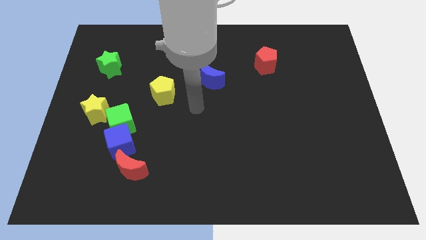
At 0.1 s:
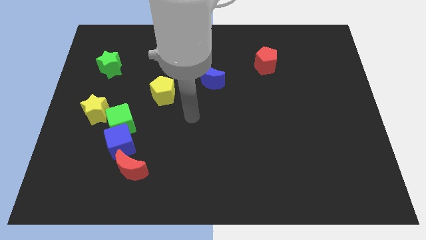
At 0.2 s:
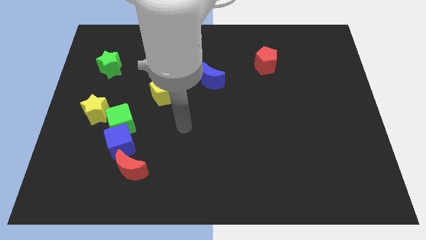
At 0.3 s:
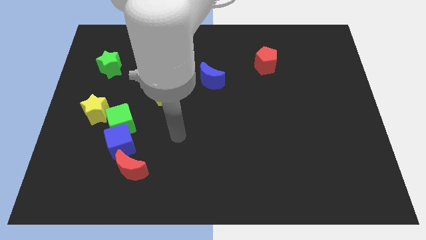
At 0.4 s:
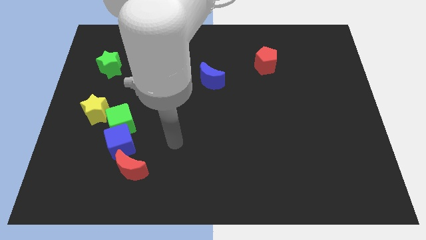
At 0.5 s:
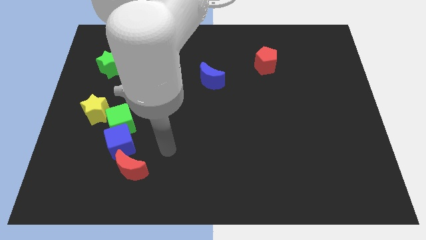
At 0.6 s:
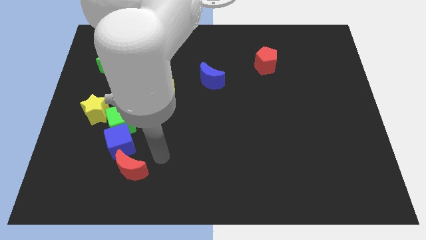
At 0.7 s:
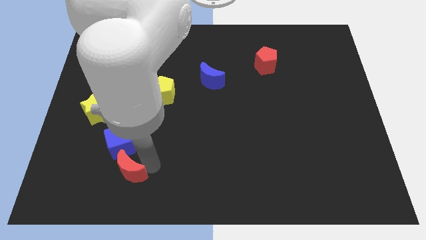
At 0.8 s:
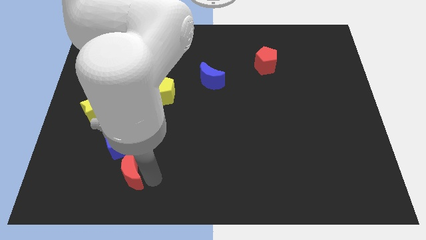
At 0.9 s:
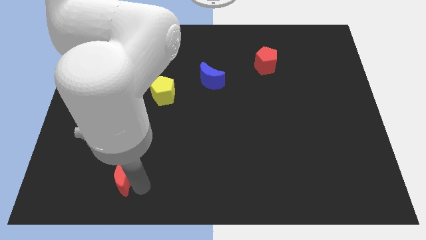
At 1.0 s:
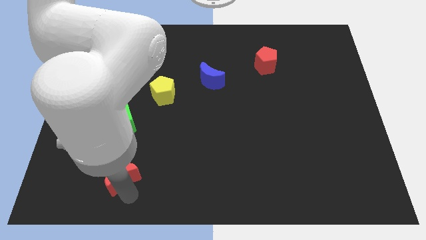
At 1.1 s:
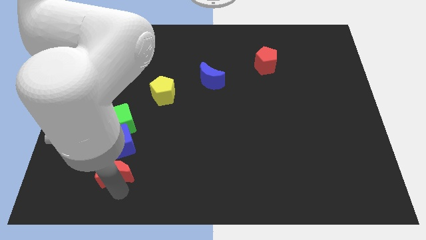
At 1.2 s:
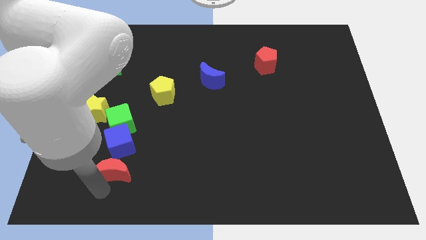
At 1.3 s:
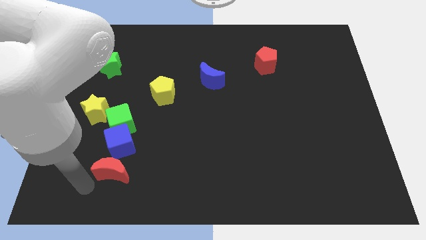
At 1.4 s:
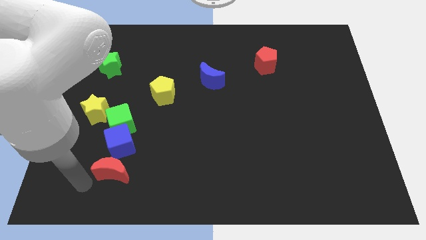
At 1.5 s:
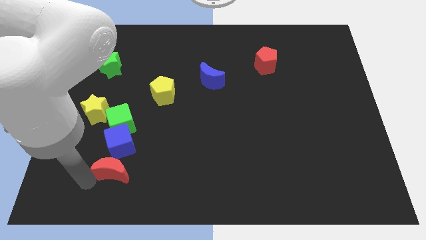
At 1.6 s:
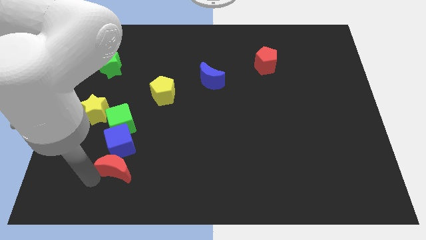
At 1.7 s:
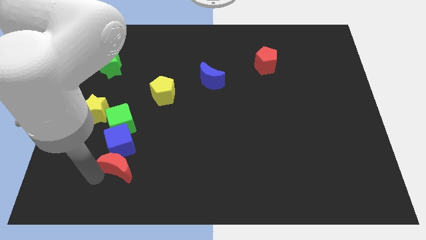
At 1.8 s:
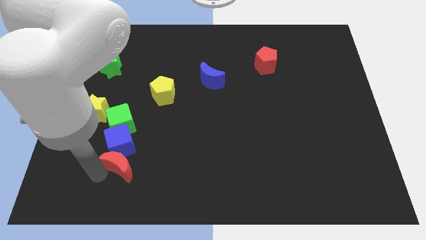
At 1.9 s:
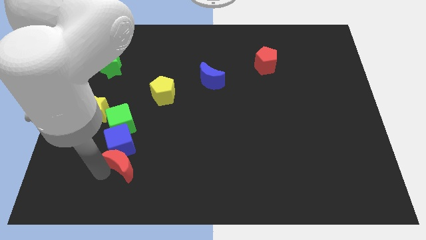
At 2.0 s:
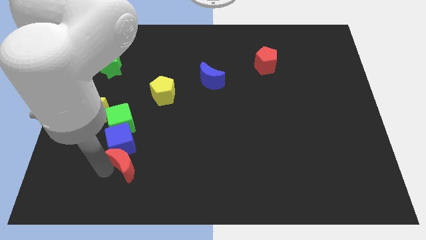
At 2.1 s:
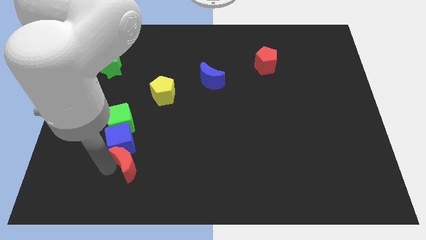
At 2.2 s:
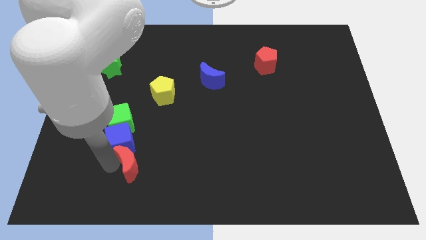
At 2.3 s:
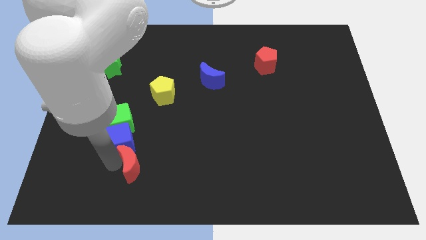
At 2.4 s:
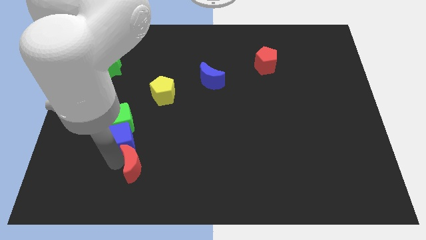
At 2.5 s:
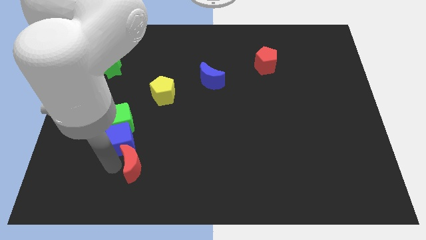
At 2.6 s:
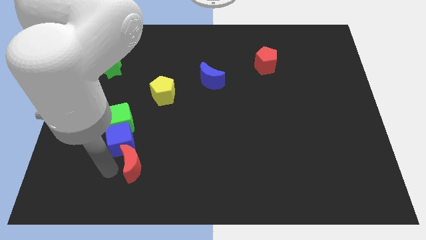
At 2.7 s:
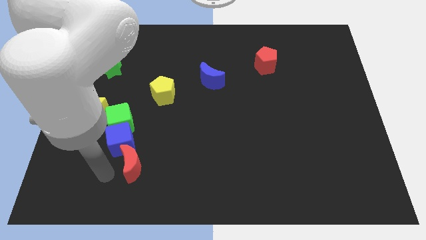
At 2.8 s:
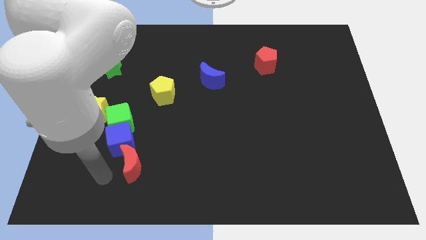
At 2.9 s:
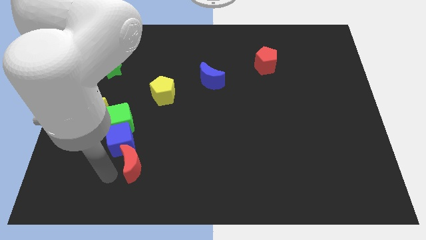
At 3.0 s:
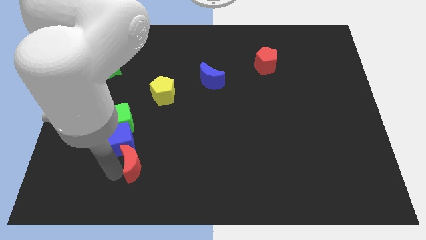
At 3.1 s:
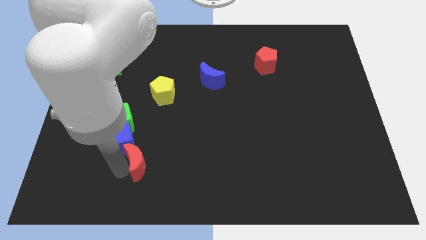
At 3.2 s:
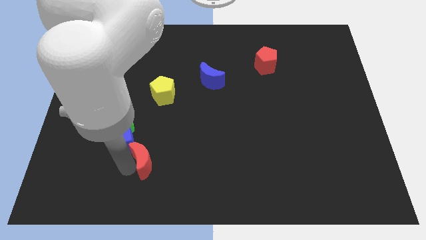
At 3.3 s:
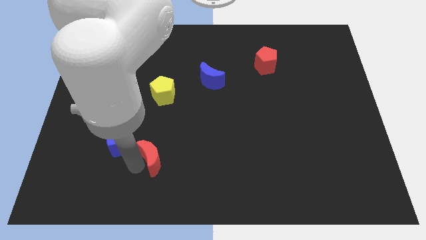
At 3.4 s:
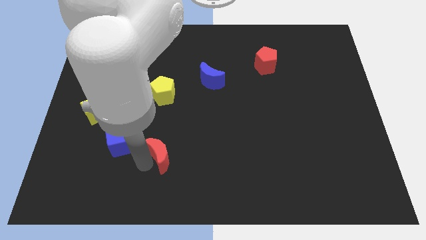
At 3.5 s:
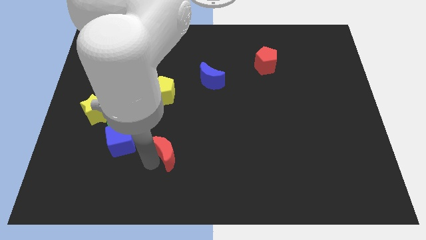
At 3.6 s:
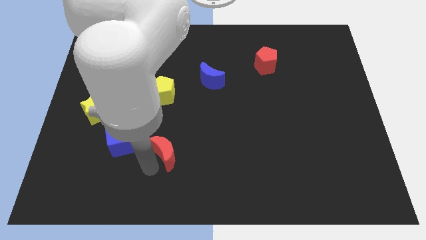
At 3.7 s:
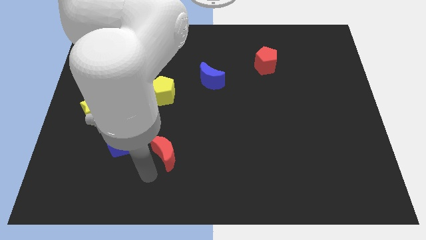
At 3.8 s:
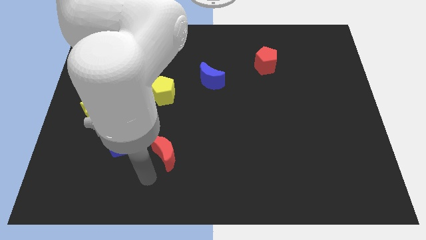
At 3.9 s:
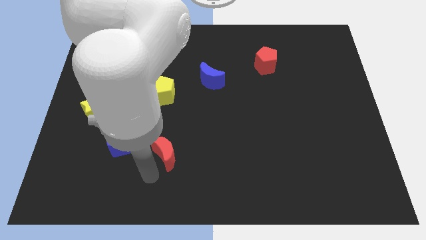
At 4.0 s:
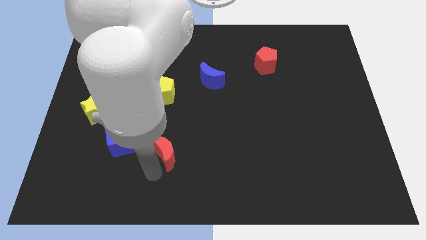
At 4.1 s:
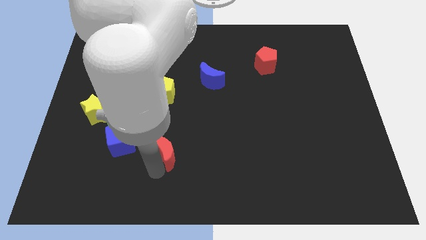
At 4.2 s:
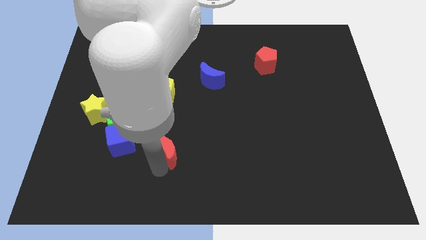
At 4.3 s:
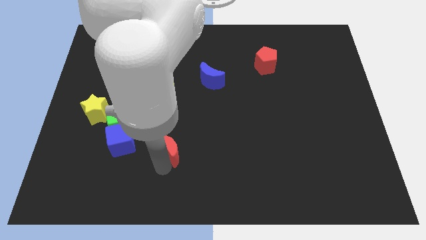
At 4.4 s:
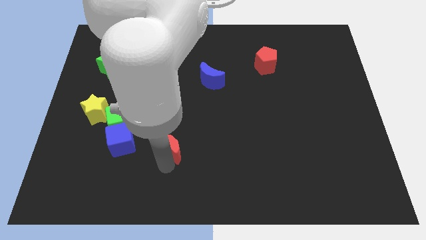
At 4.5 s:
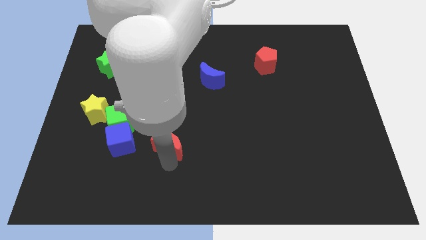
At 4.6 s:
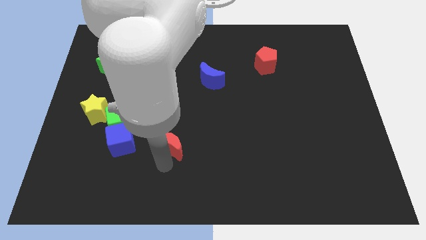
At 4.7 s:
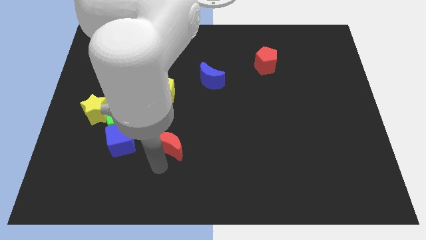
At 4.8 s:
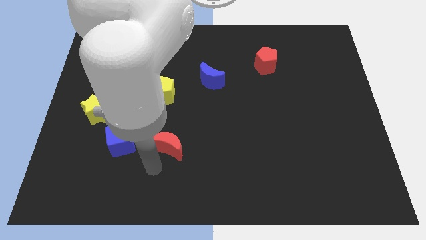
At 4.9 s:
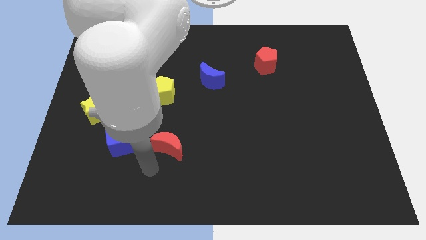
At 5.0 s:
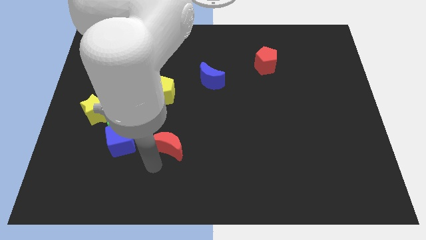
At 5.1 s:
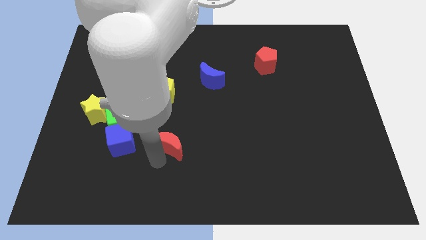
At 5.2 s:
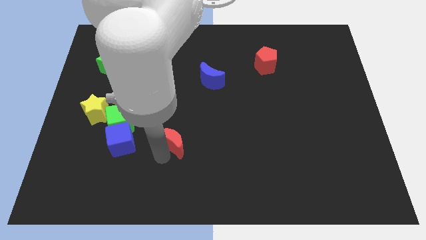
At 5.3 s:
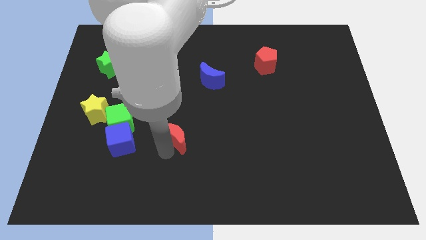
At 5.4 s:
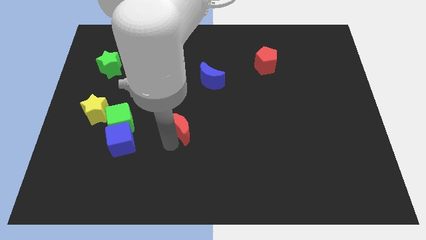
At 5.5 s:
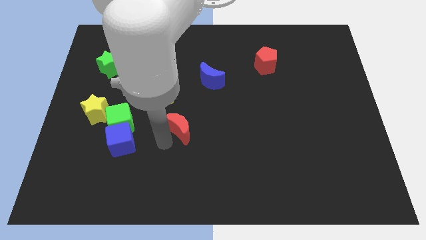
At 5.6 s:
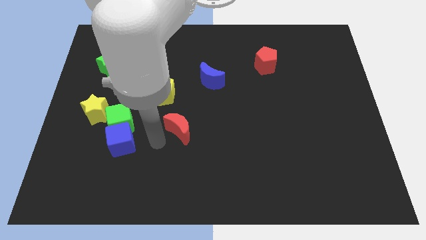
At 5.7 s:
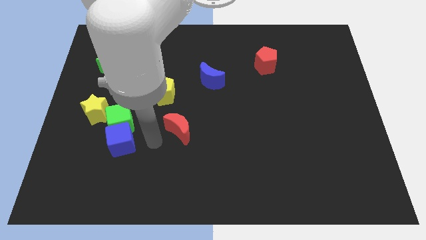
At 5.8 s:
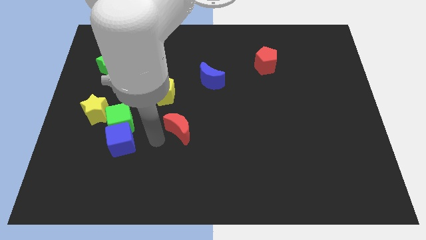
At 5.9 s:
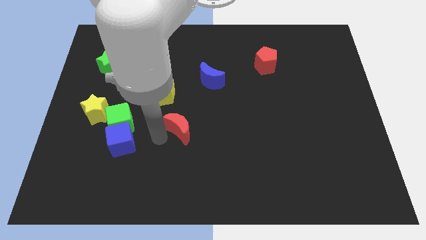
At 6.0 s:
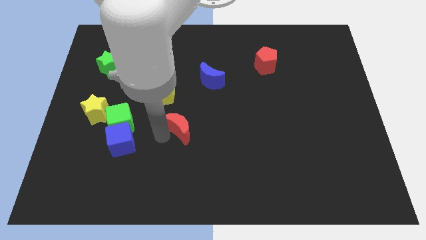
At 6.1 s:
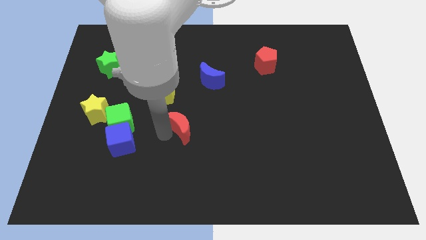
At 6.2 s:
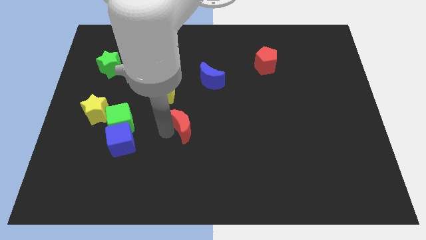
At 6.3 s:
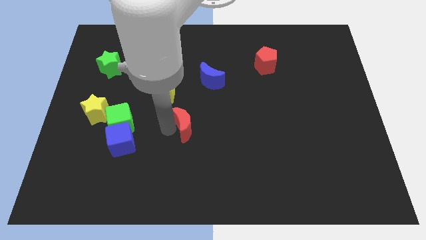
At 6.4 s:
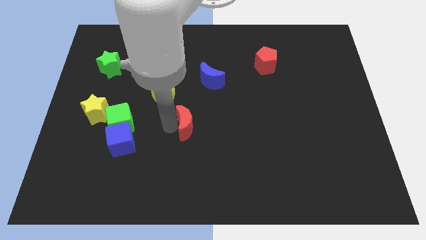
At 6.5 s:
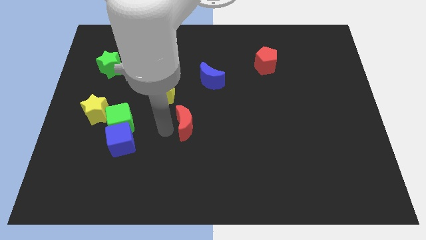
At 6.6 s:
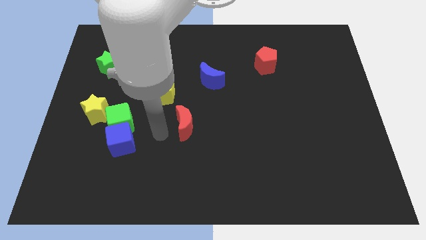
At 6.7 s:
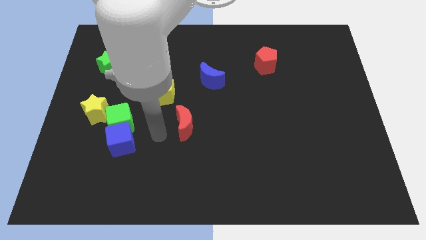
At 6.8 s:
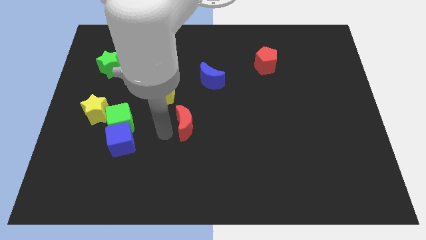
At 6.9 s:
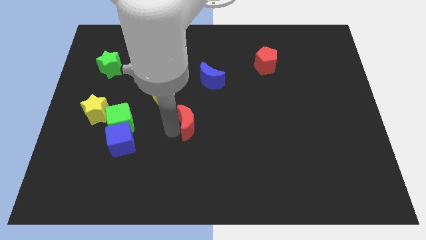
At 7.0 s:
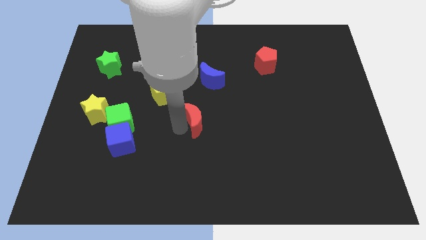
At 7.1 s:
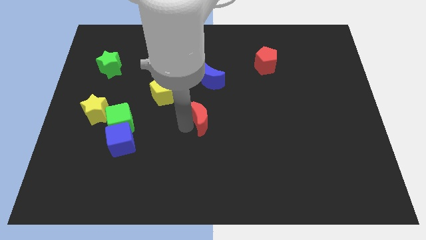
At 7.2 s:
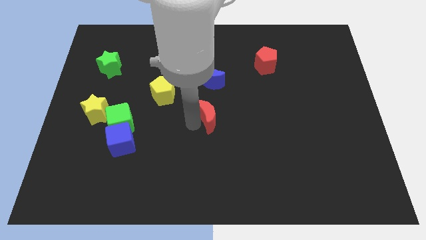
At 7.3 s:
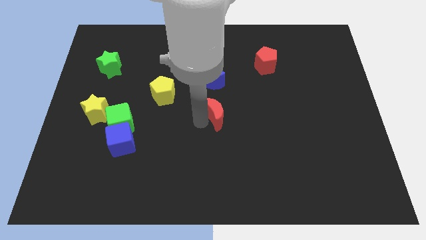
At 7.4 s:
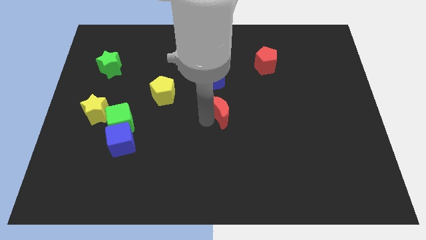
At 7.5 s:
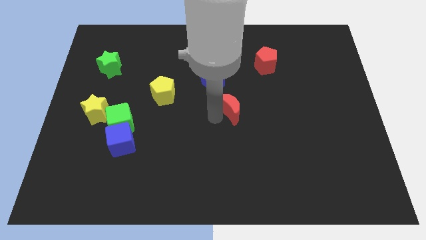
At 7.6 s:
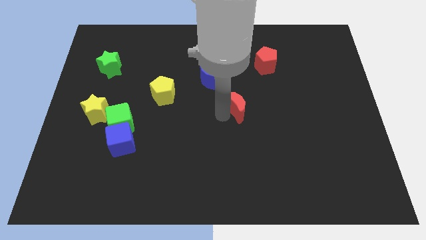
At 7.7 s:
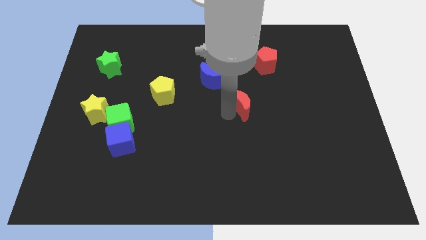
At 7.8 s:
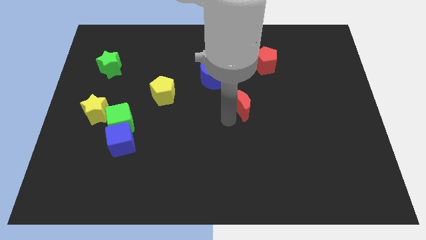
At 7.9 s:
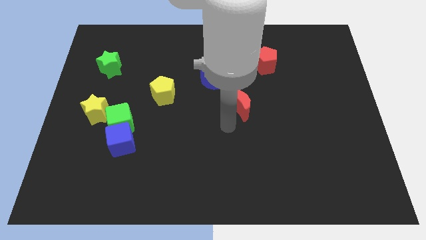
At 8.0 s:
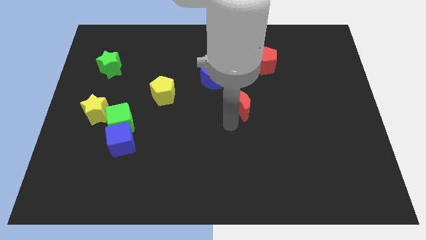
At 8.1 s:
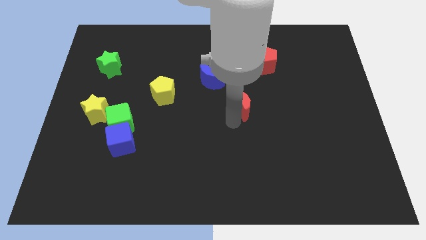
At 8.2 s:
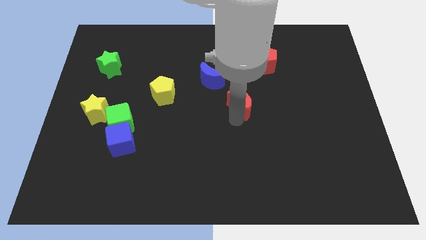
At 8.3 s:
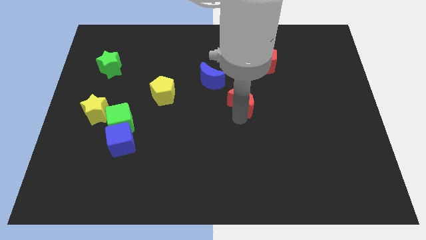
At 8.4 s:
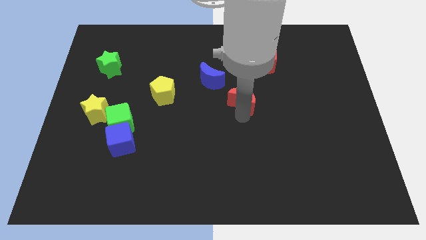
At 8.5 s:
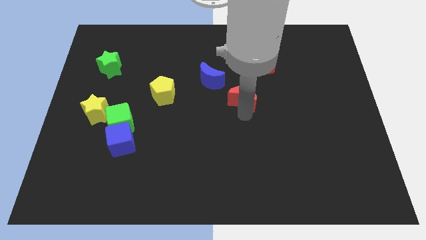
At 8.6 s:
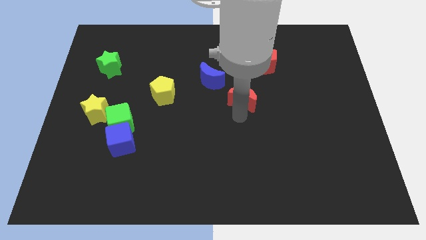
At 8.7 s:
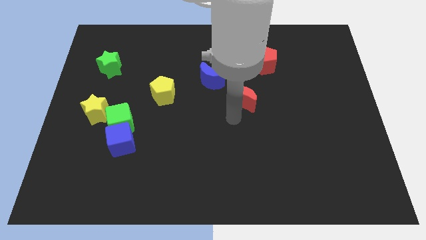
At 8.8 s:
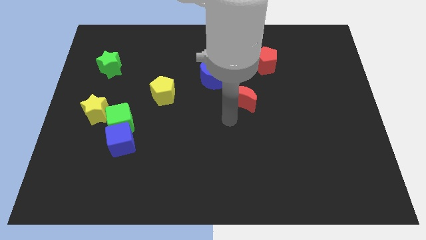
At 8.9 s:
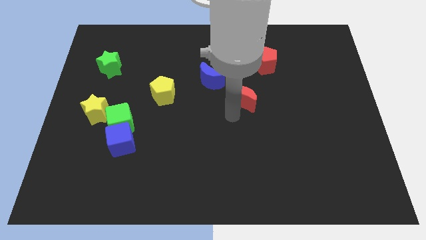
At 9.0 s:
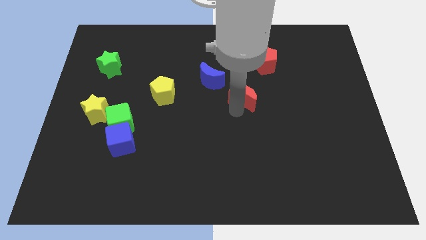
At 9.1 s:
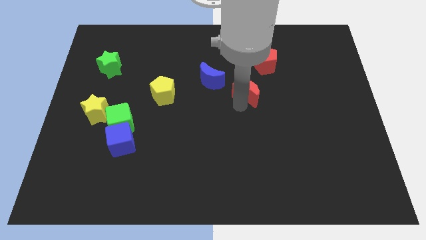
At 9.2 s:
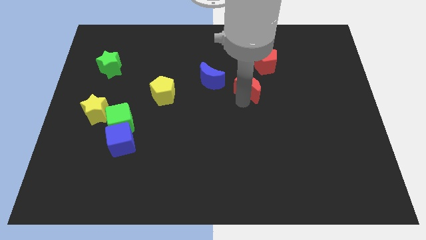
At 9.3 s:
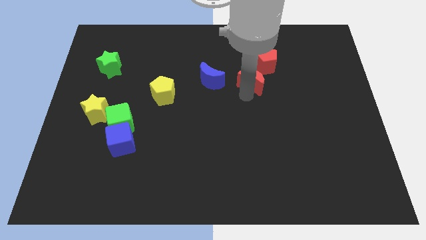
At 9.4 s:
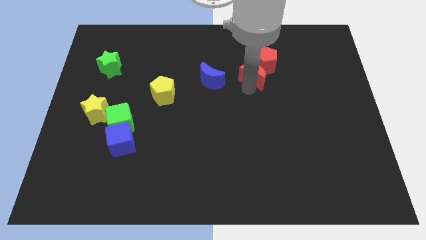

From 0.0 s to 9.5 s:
push the red moon close to the red pentagon
